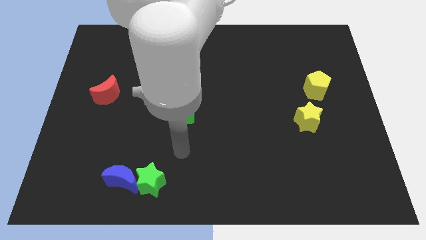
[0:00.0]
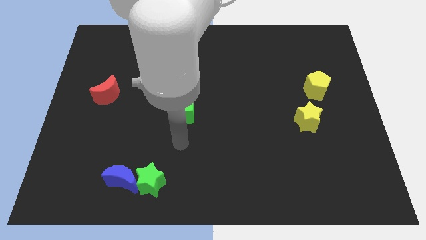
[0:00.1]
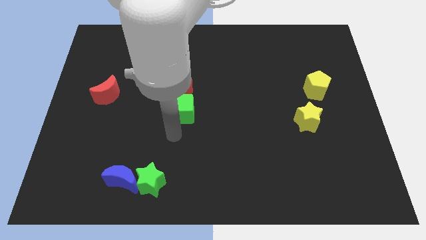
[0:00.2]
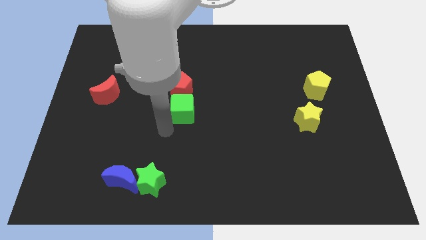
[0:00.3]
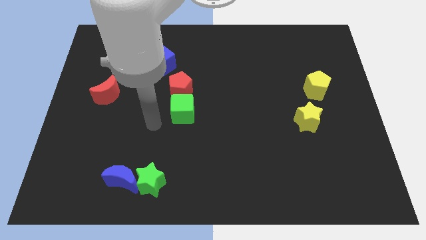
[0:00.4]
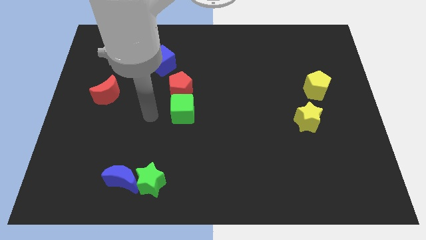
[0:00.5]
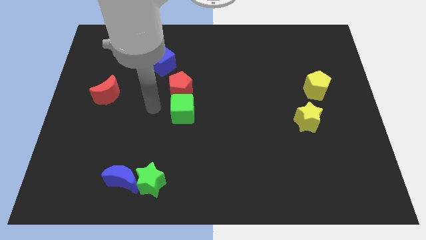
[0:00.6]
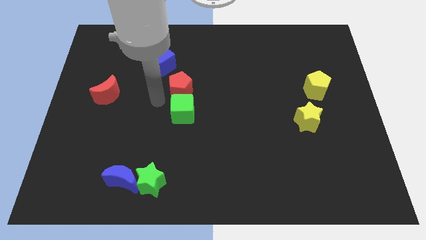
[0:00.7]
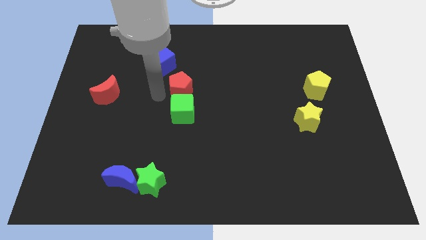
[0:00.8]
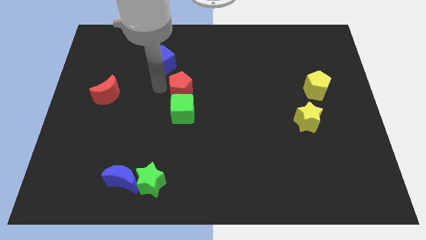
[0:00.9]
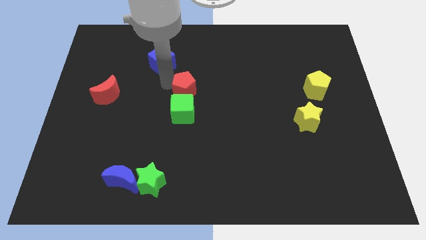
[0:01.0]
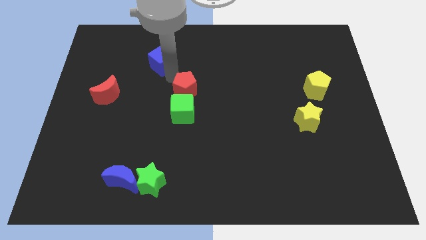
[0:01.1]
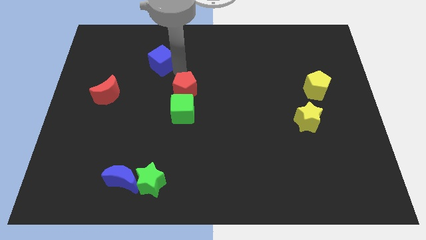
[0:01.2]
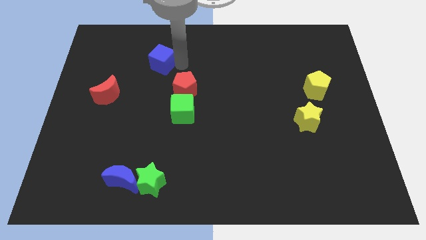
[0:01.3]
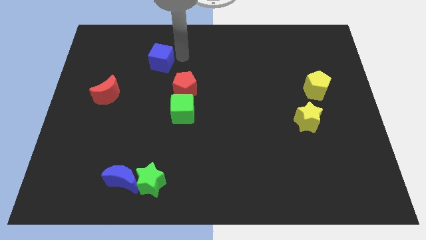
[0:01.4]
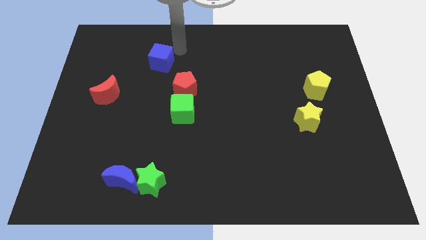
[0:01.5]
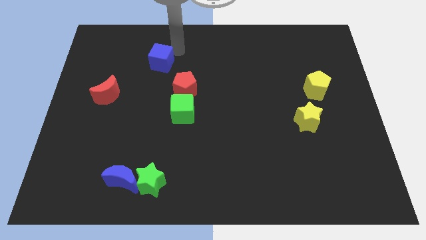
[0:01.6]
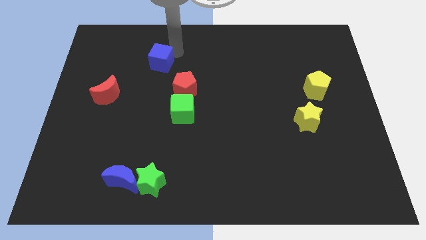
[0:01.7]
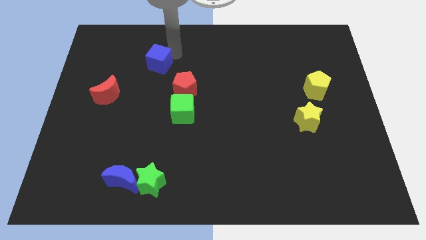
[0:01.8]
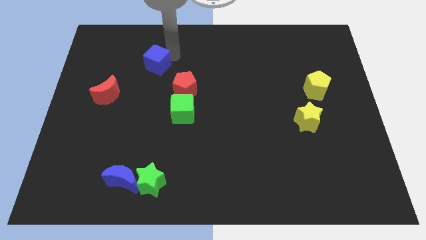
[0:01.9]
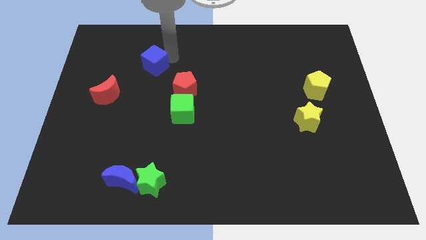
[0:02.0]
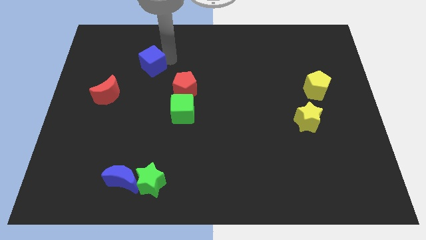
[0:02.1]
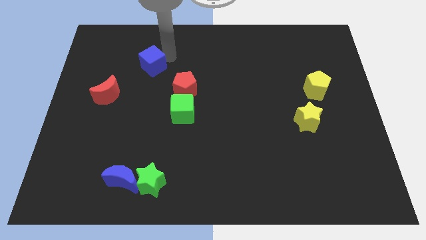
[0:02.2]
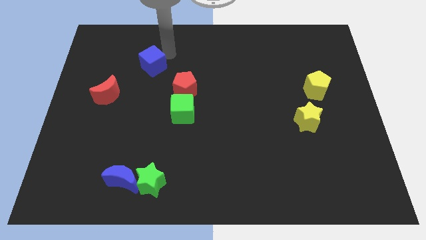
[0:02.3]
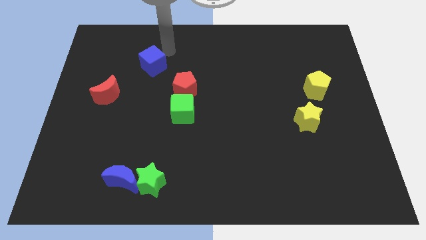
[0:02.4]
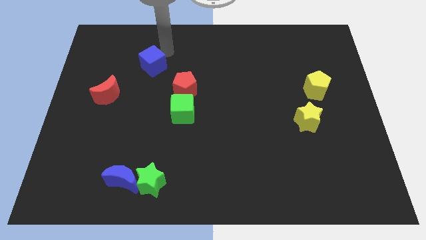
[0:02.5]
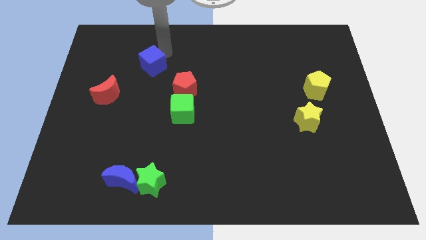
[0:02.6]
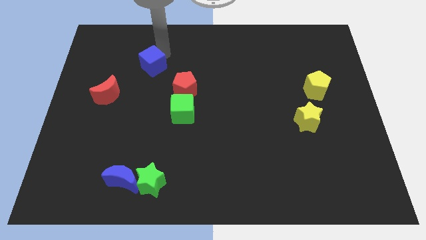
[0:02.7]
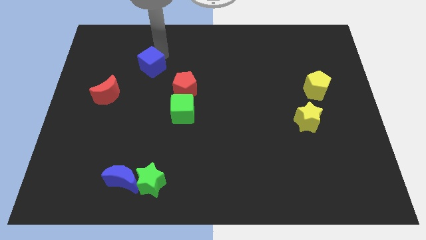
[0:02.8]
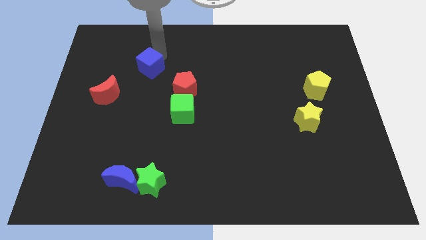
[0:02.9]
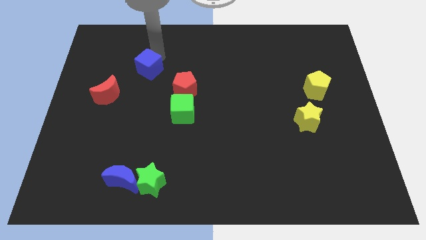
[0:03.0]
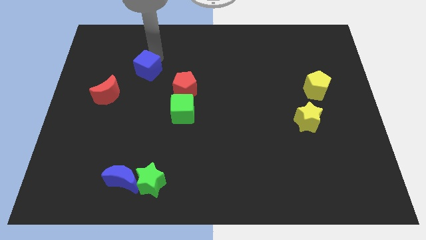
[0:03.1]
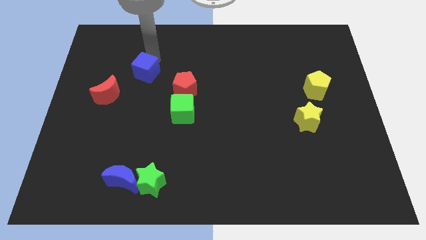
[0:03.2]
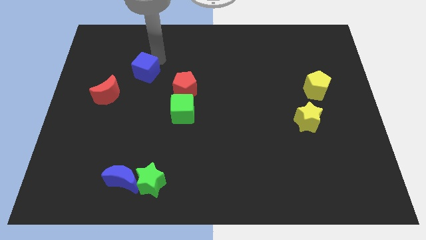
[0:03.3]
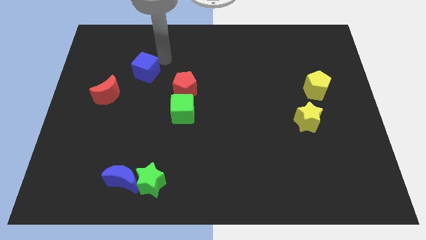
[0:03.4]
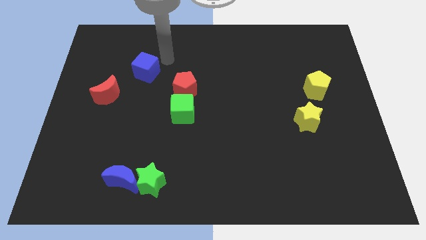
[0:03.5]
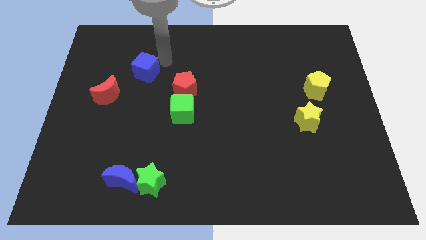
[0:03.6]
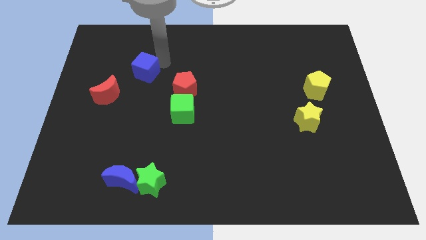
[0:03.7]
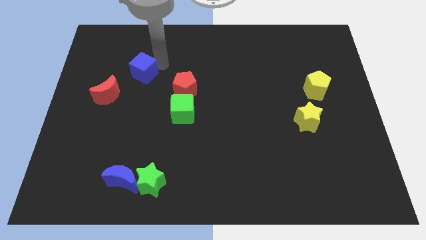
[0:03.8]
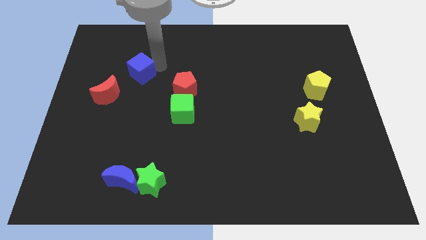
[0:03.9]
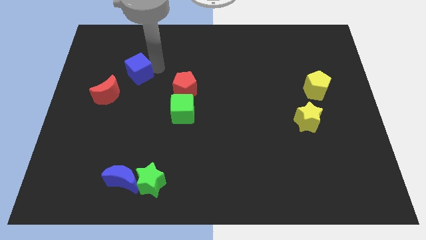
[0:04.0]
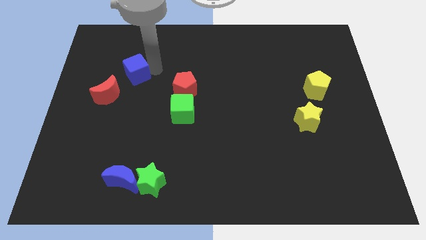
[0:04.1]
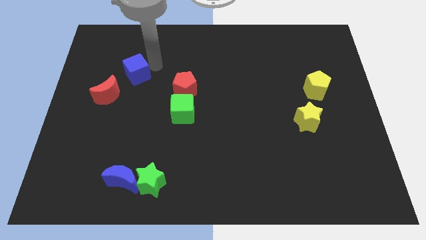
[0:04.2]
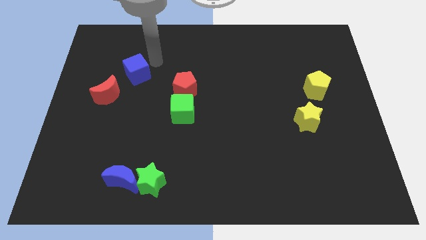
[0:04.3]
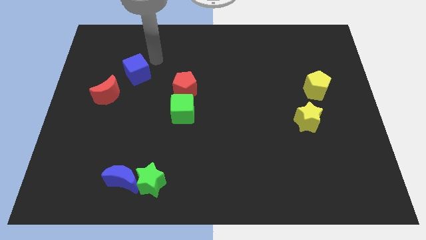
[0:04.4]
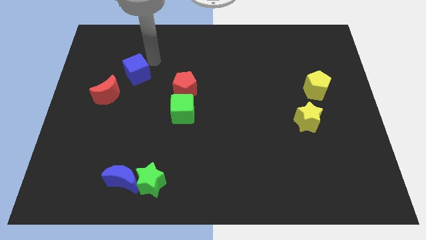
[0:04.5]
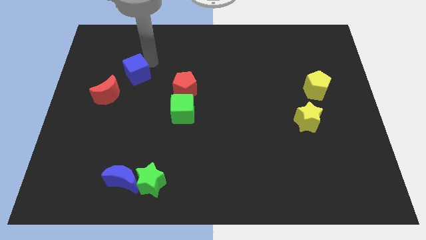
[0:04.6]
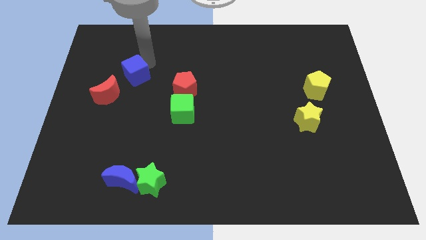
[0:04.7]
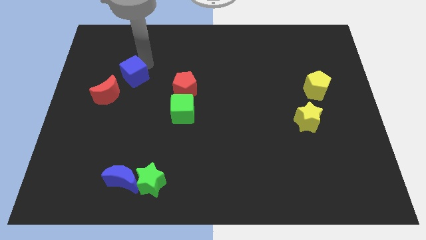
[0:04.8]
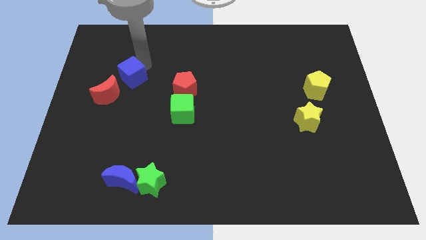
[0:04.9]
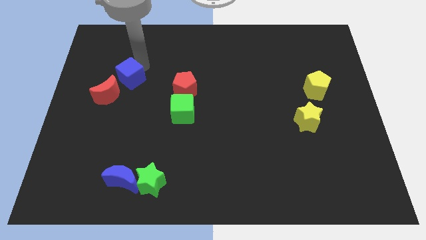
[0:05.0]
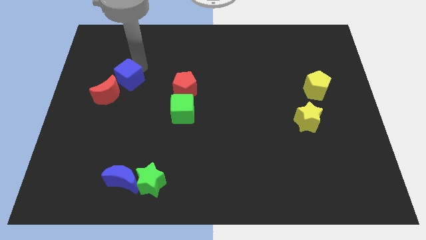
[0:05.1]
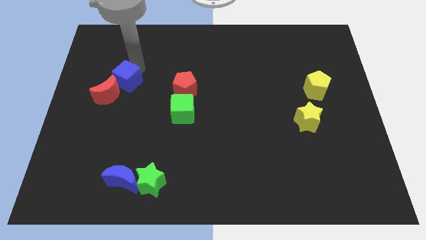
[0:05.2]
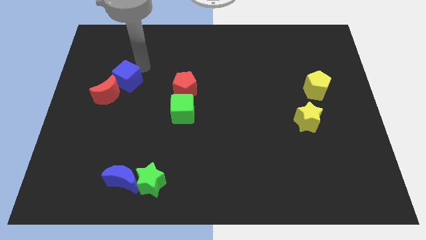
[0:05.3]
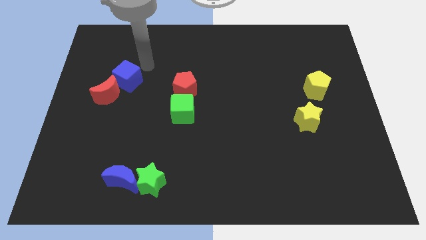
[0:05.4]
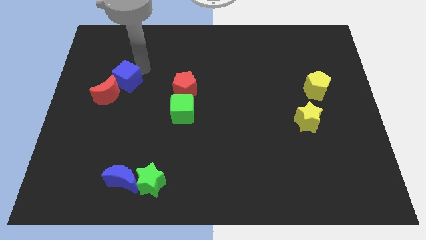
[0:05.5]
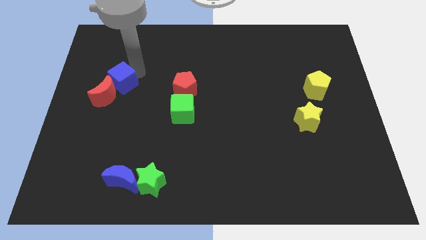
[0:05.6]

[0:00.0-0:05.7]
put the blue cube next to the red moon

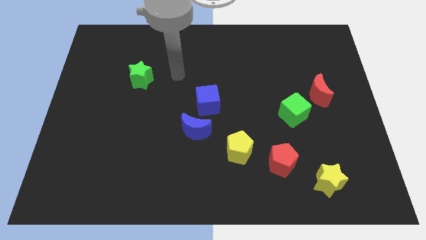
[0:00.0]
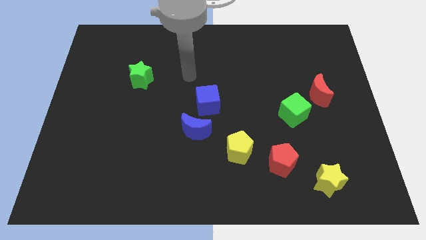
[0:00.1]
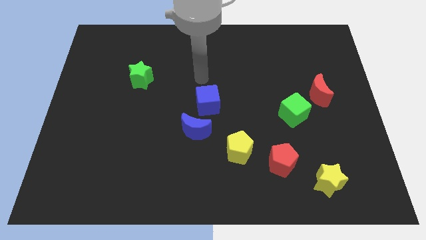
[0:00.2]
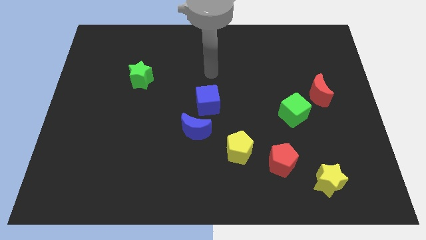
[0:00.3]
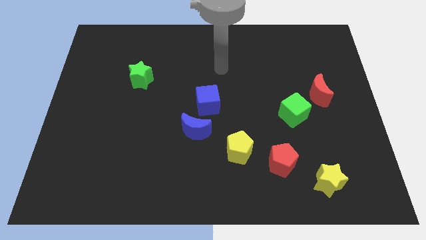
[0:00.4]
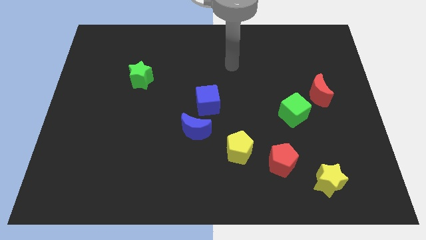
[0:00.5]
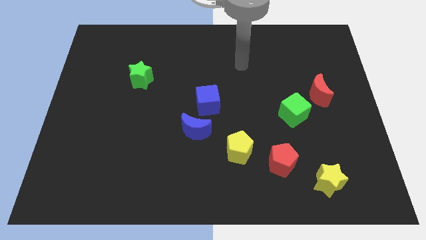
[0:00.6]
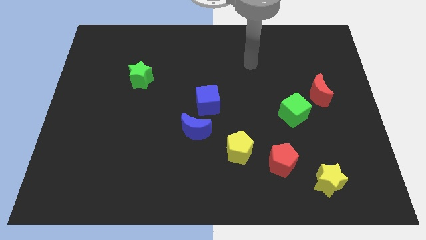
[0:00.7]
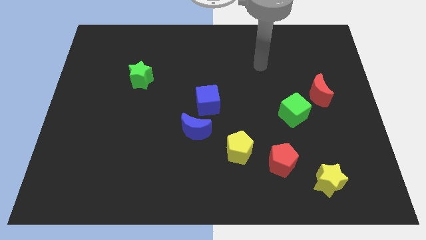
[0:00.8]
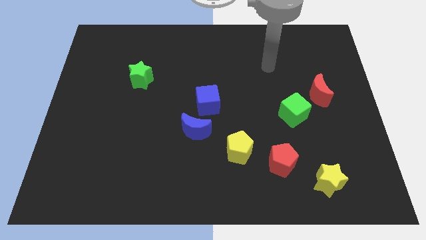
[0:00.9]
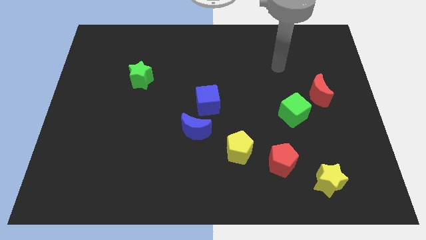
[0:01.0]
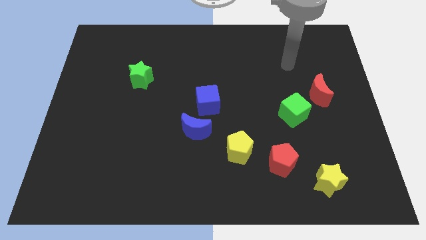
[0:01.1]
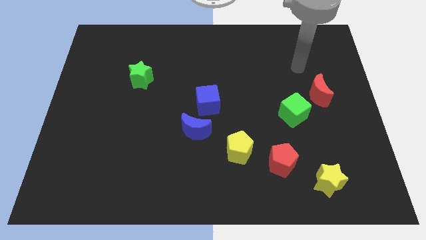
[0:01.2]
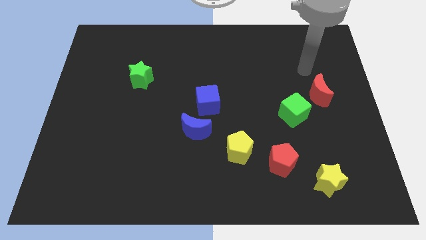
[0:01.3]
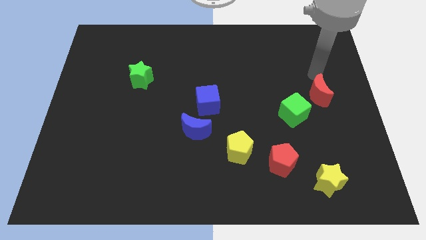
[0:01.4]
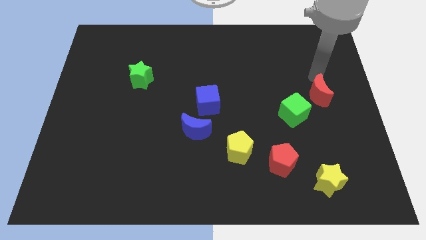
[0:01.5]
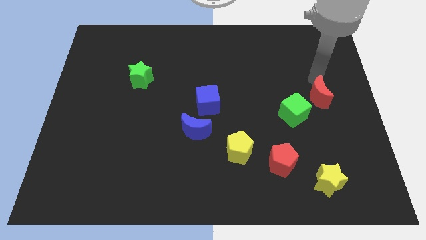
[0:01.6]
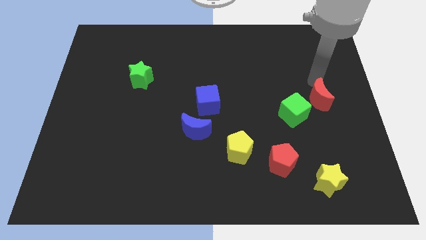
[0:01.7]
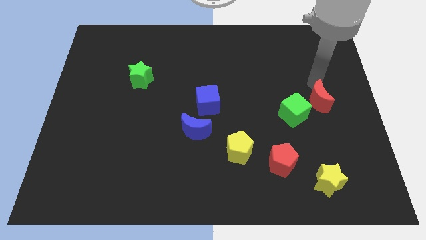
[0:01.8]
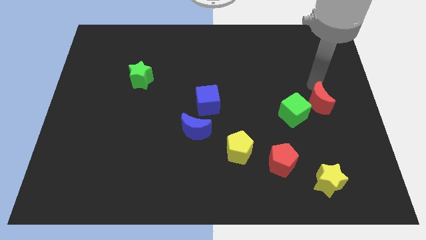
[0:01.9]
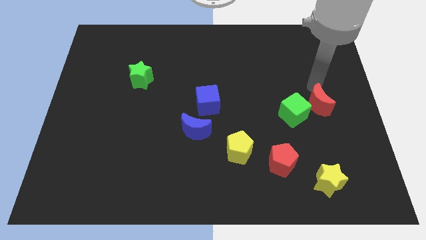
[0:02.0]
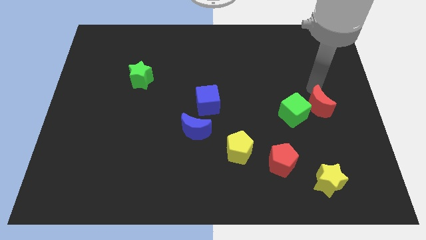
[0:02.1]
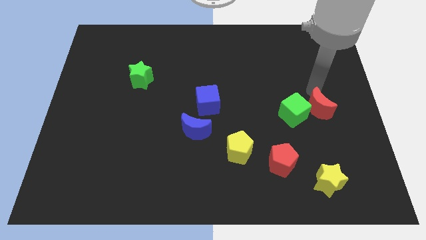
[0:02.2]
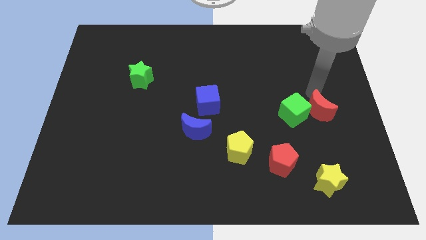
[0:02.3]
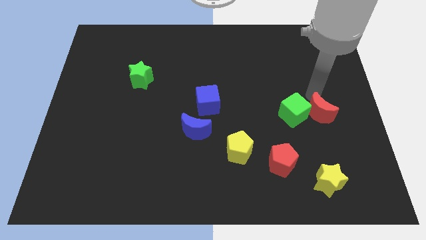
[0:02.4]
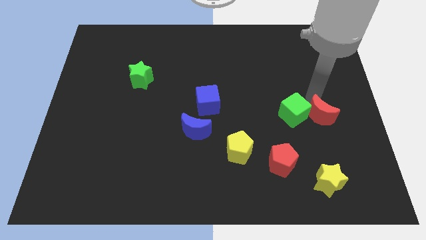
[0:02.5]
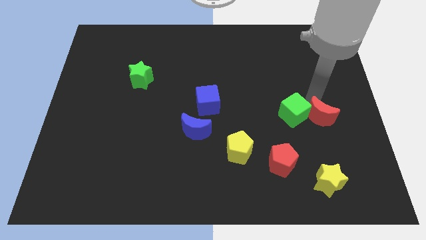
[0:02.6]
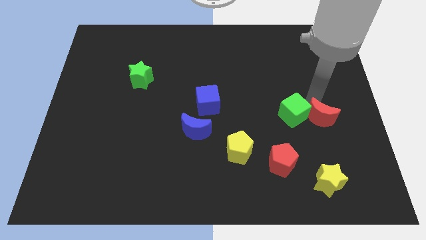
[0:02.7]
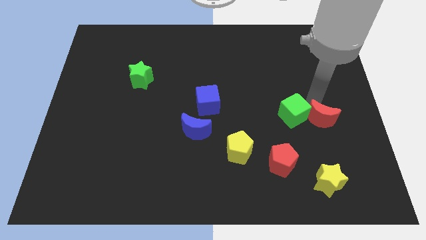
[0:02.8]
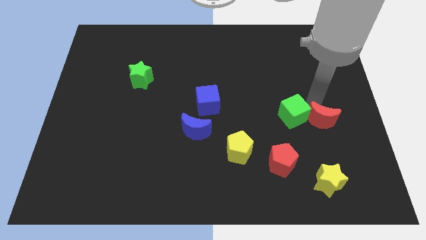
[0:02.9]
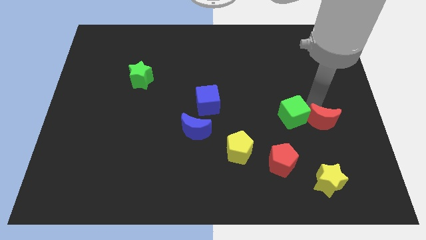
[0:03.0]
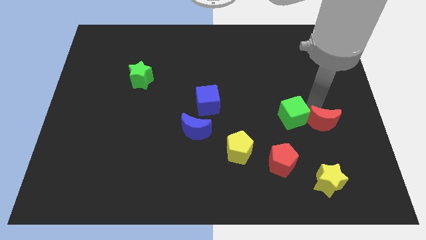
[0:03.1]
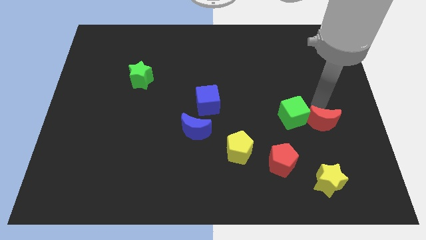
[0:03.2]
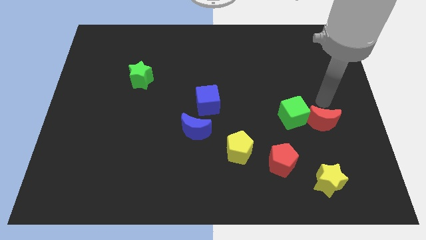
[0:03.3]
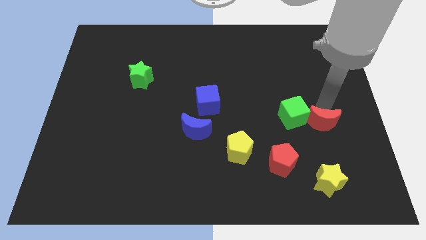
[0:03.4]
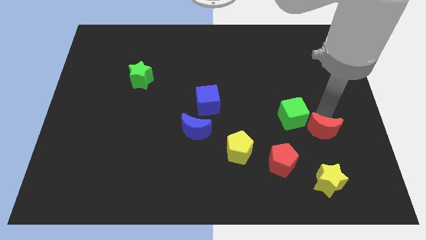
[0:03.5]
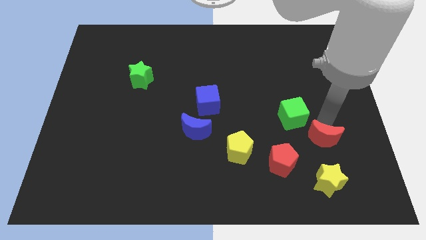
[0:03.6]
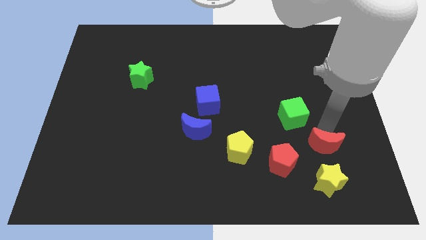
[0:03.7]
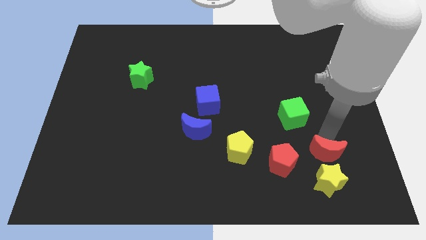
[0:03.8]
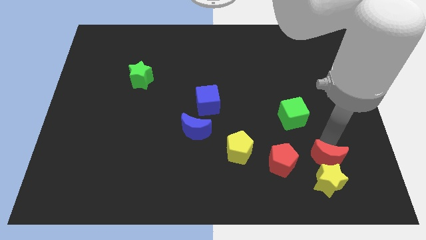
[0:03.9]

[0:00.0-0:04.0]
slide the red moon next to the yellow star
